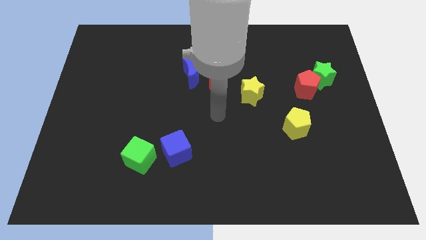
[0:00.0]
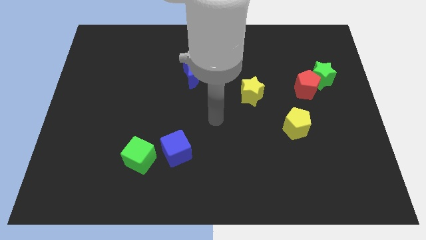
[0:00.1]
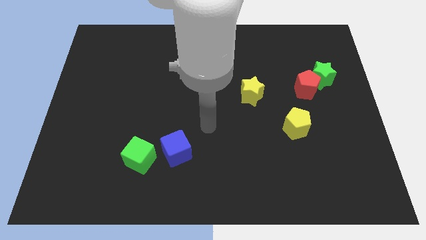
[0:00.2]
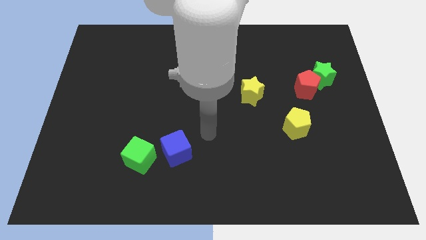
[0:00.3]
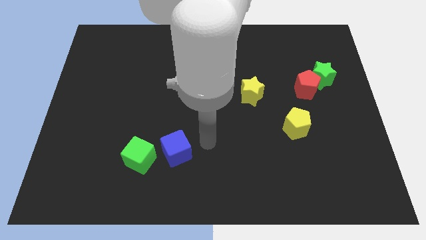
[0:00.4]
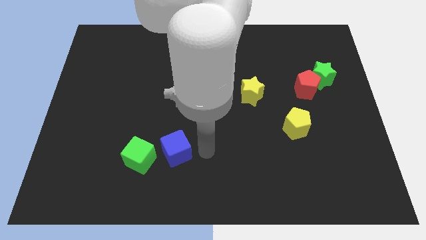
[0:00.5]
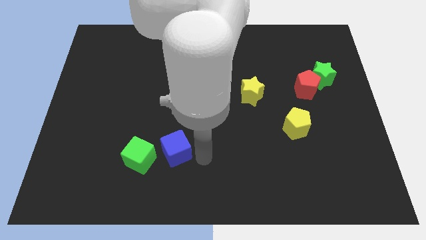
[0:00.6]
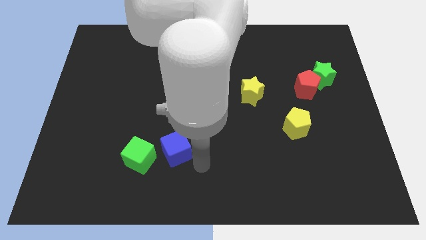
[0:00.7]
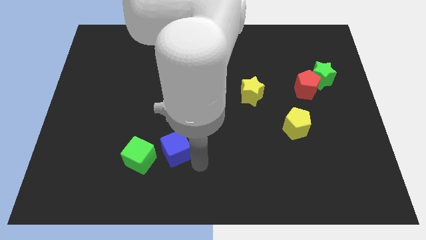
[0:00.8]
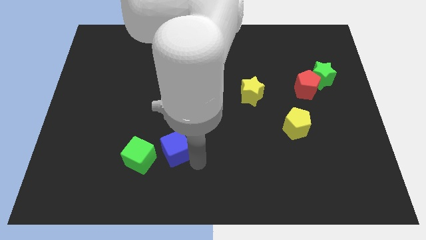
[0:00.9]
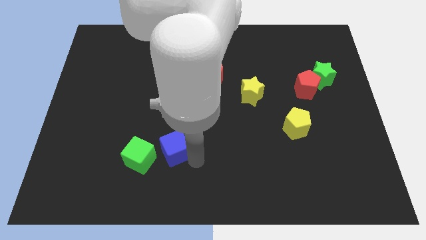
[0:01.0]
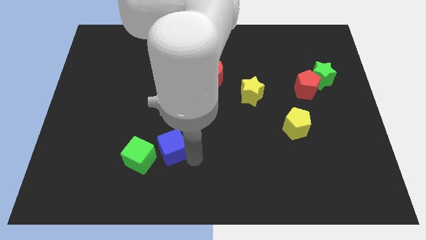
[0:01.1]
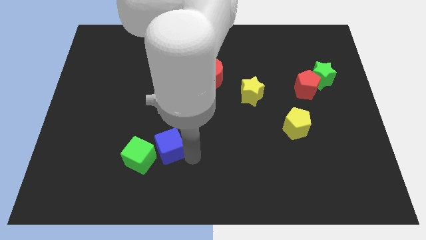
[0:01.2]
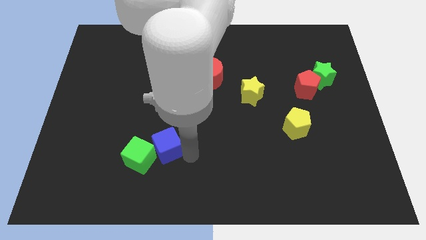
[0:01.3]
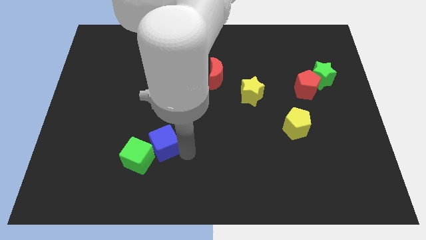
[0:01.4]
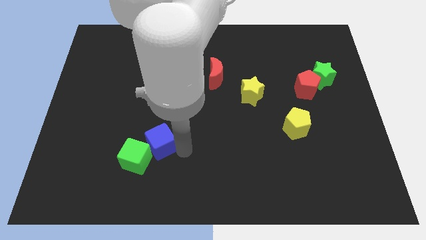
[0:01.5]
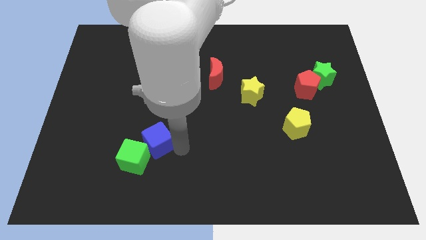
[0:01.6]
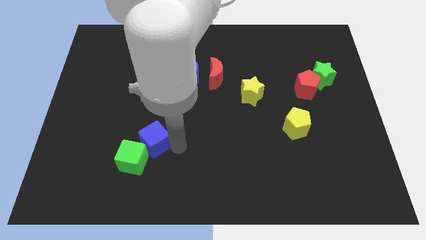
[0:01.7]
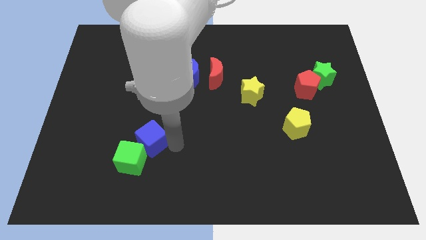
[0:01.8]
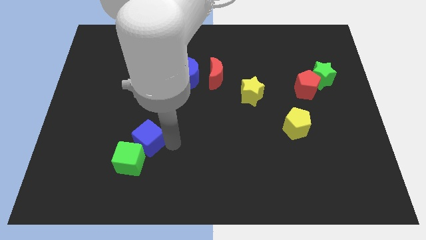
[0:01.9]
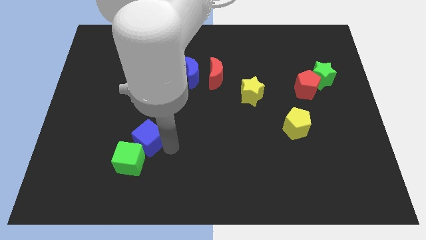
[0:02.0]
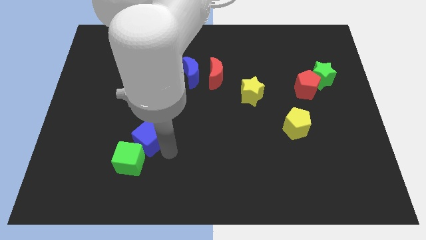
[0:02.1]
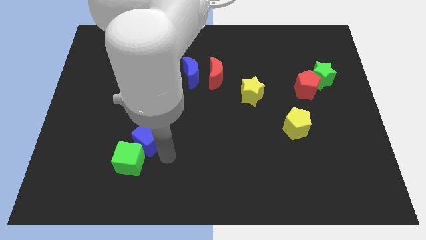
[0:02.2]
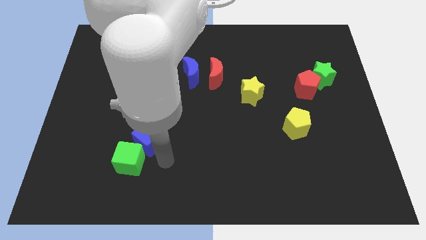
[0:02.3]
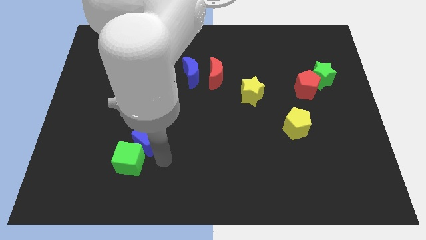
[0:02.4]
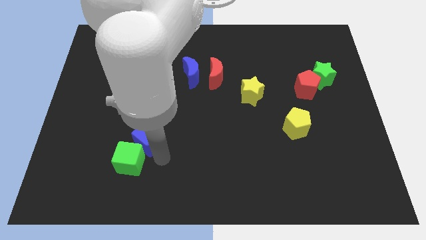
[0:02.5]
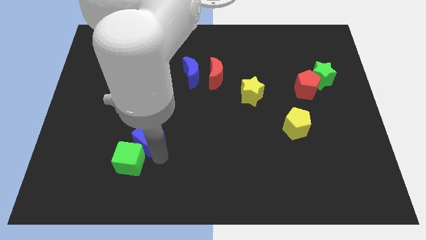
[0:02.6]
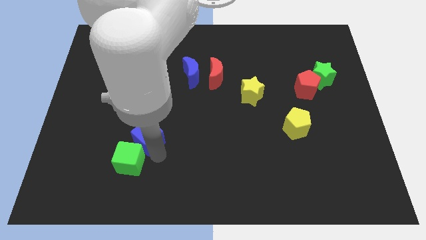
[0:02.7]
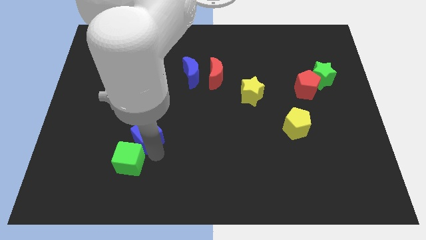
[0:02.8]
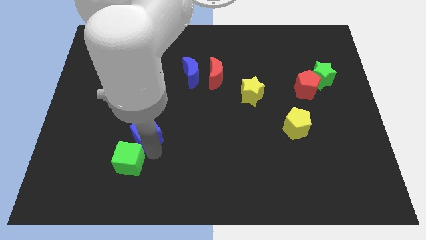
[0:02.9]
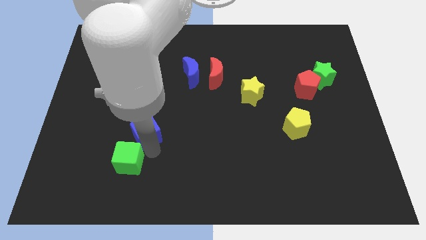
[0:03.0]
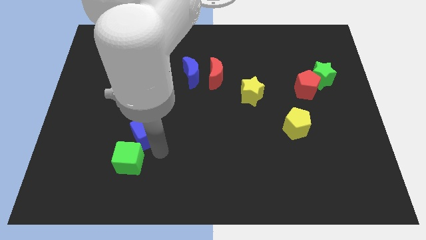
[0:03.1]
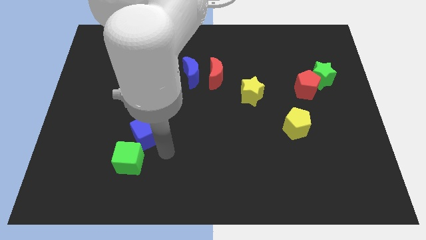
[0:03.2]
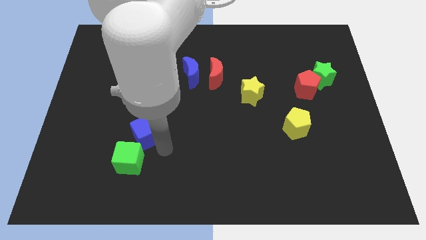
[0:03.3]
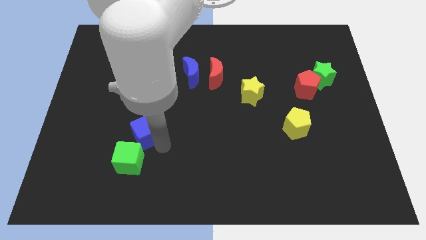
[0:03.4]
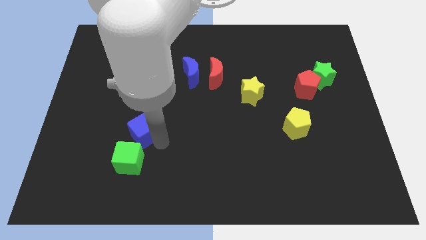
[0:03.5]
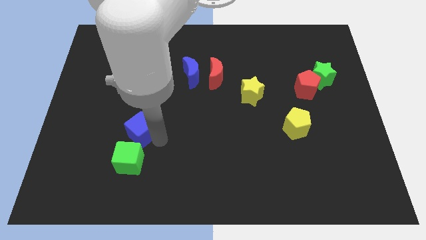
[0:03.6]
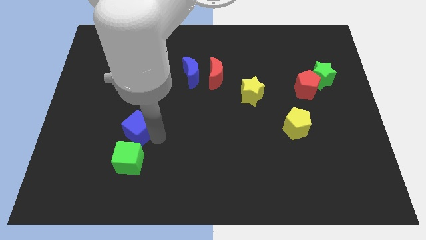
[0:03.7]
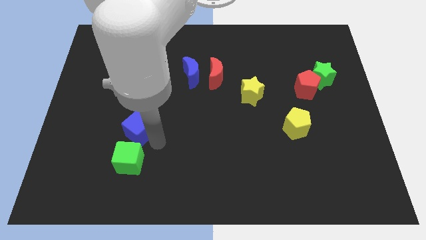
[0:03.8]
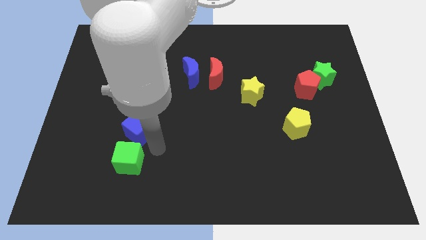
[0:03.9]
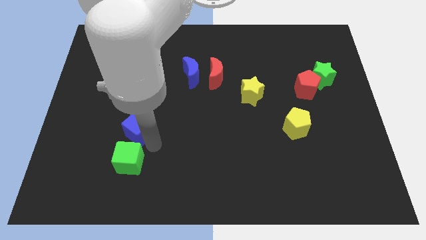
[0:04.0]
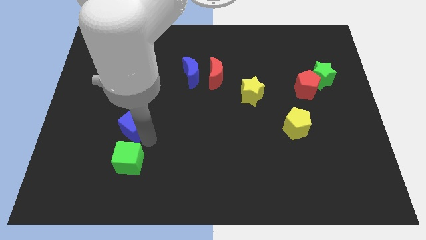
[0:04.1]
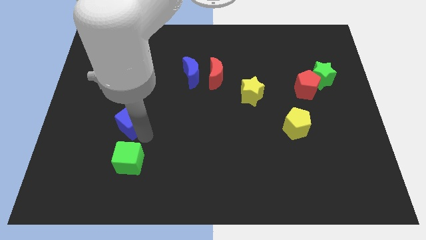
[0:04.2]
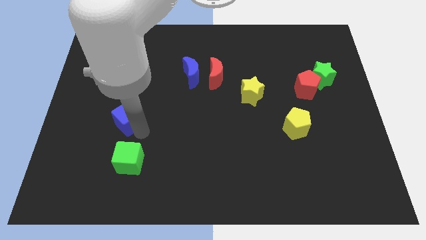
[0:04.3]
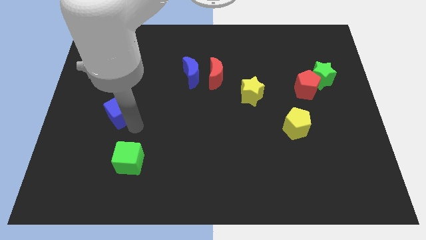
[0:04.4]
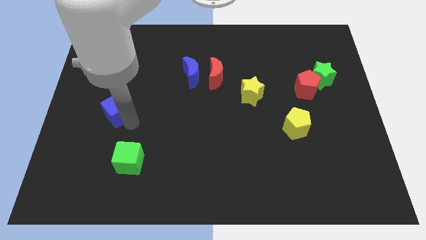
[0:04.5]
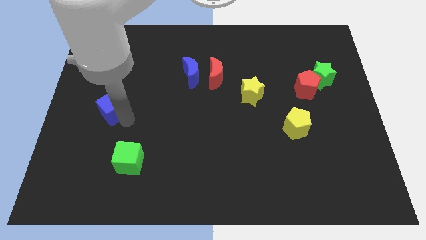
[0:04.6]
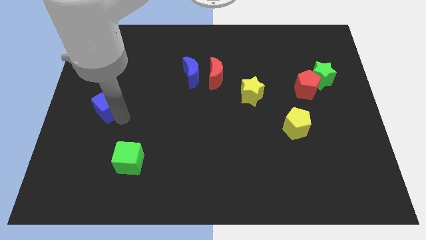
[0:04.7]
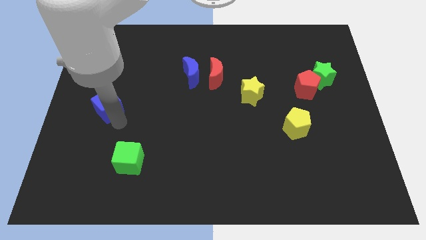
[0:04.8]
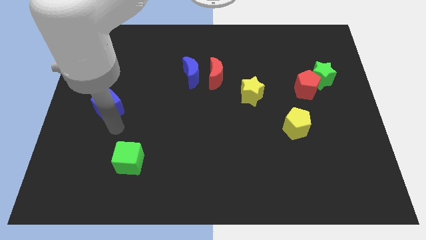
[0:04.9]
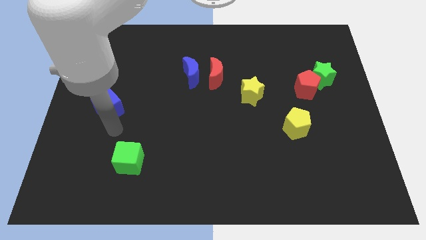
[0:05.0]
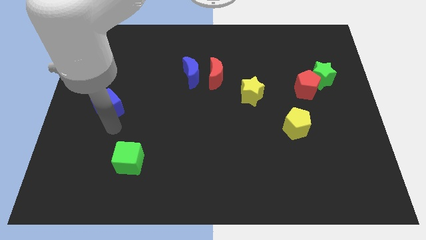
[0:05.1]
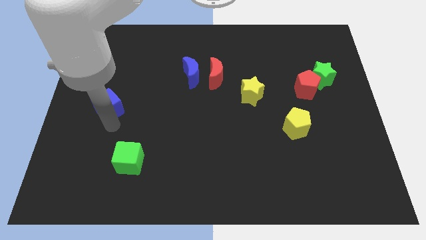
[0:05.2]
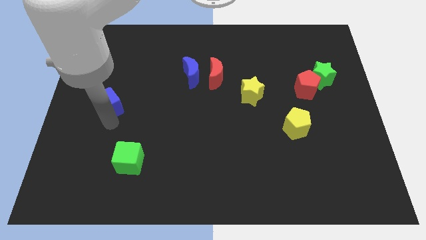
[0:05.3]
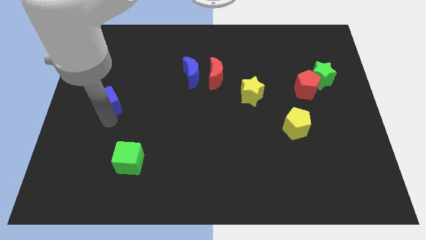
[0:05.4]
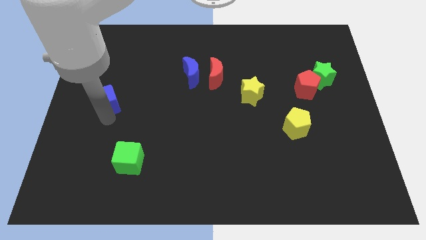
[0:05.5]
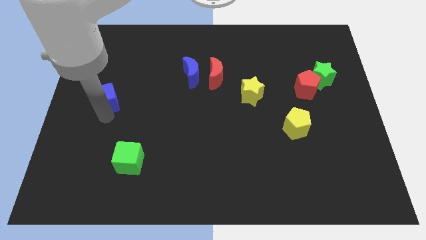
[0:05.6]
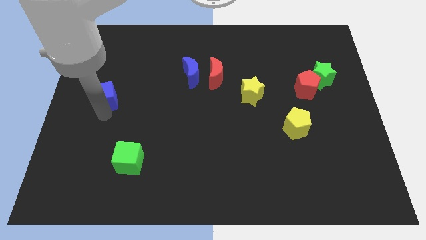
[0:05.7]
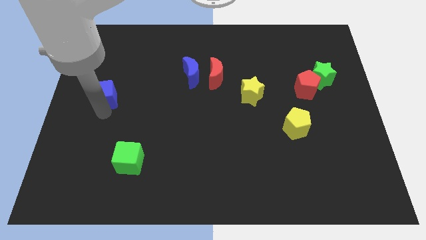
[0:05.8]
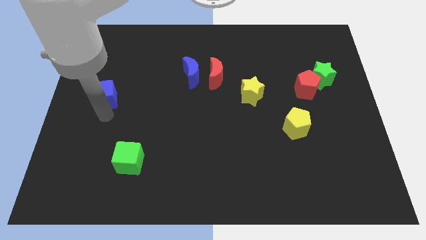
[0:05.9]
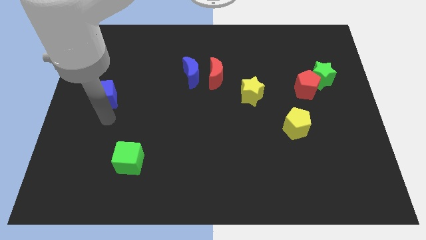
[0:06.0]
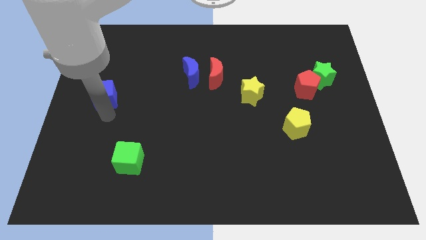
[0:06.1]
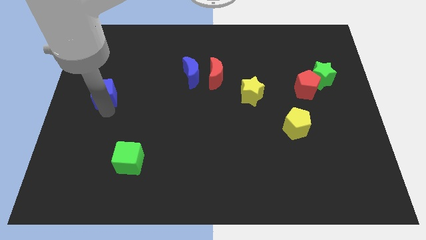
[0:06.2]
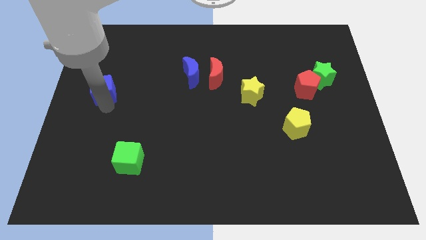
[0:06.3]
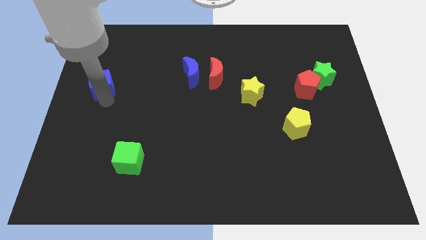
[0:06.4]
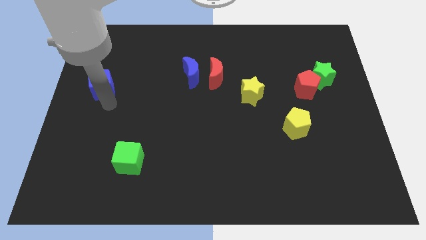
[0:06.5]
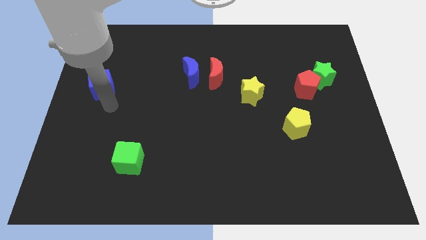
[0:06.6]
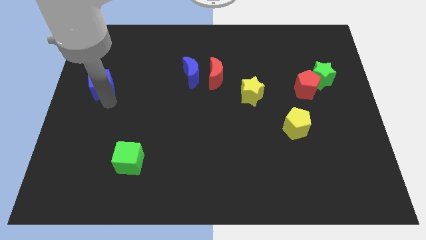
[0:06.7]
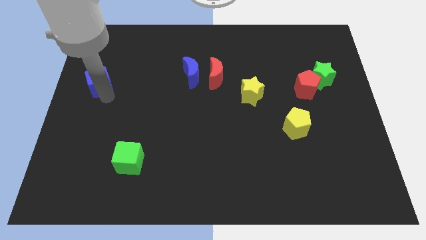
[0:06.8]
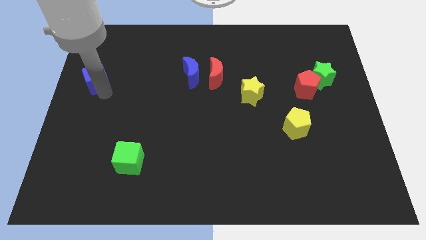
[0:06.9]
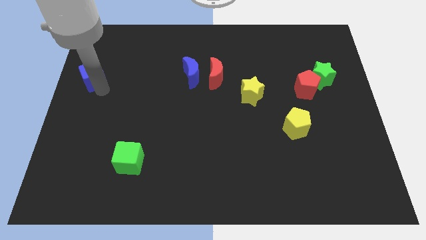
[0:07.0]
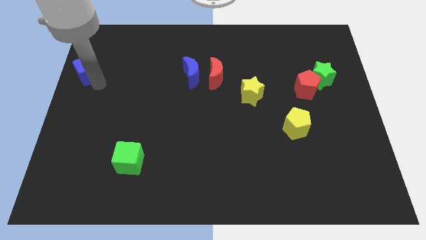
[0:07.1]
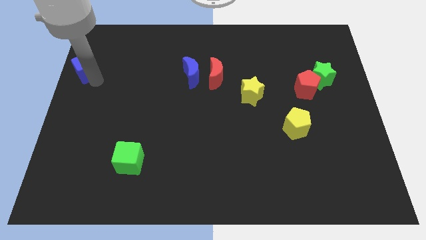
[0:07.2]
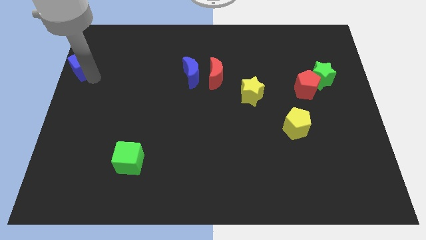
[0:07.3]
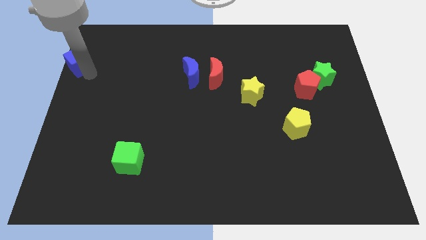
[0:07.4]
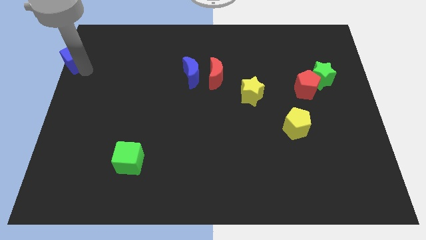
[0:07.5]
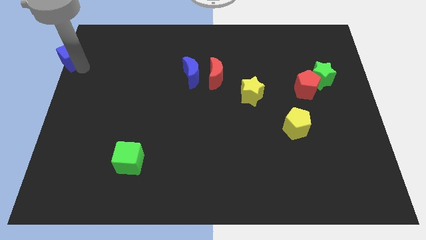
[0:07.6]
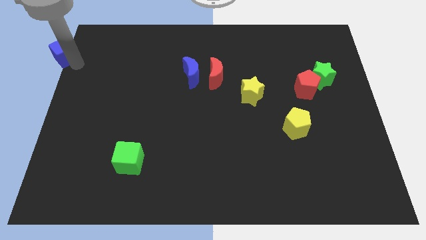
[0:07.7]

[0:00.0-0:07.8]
put the blue cube to the top left corner
